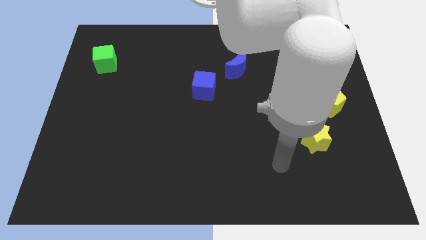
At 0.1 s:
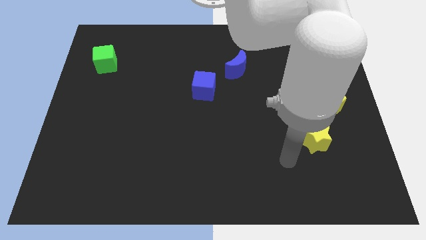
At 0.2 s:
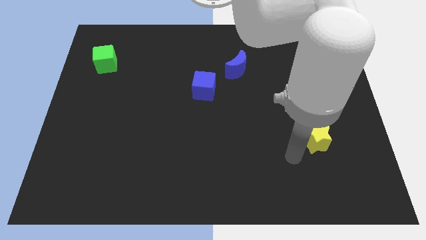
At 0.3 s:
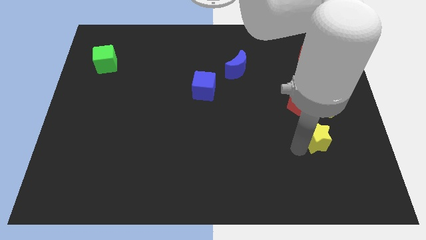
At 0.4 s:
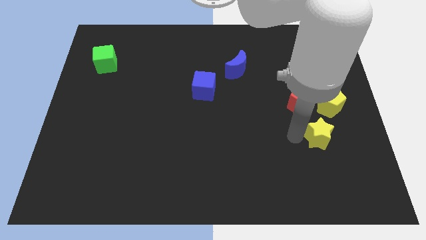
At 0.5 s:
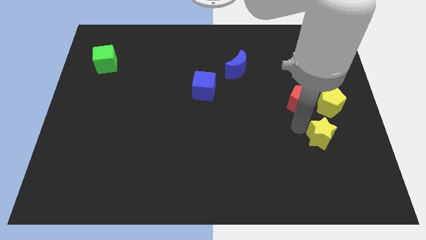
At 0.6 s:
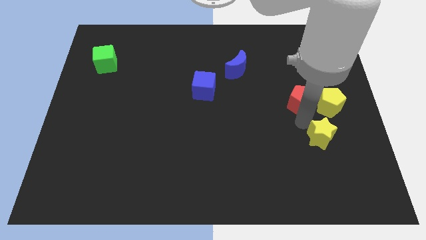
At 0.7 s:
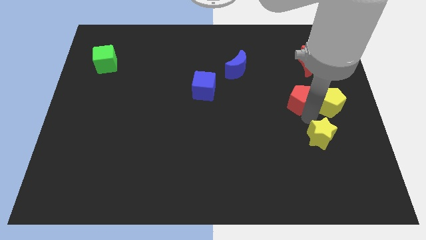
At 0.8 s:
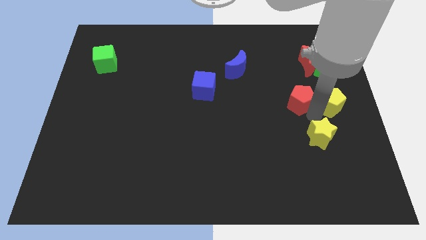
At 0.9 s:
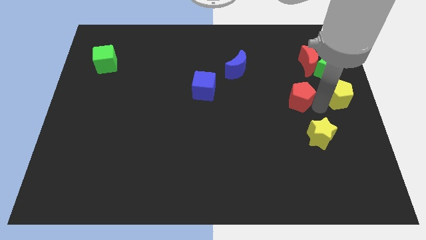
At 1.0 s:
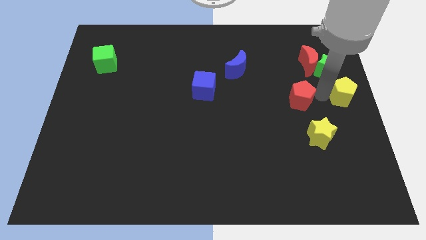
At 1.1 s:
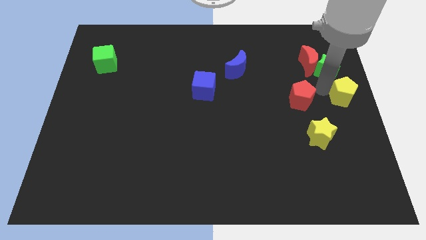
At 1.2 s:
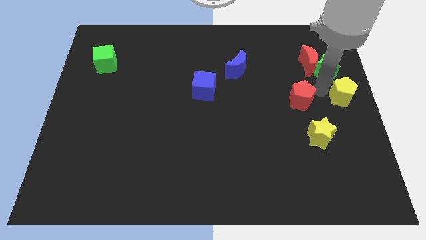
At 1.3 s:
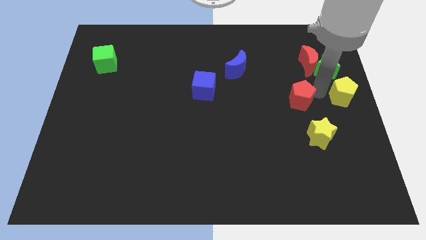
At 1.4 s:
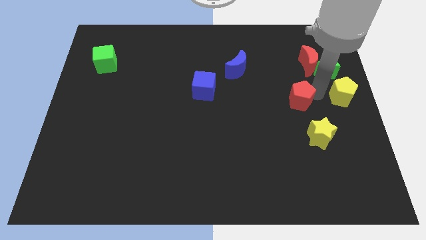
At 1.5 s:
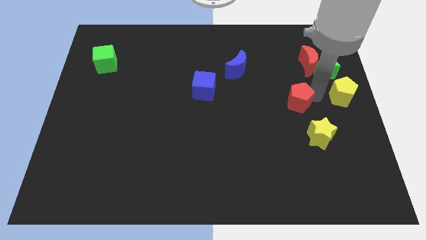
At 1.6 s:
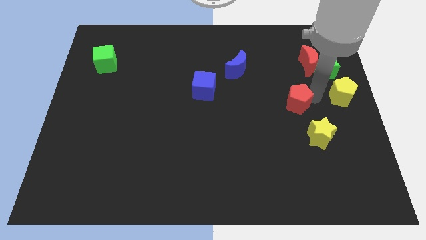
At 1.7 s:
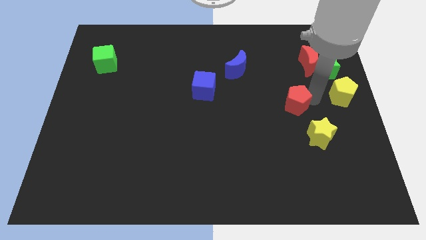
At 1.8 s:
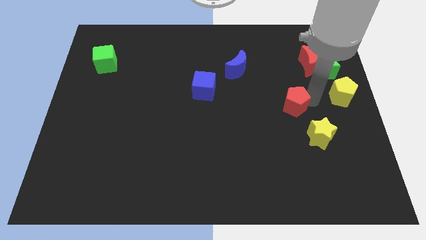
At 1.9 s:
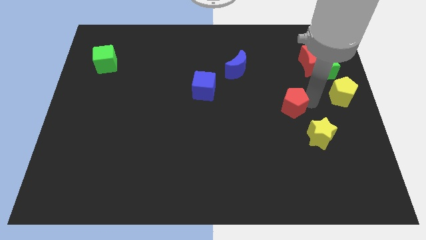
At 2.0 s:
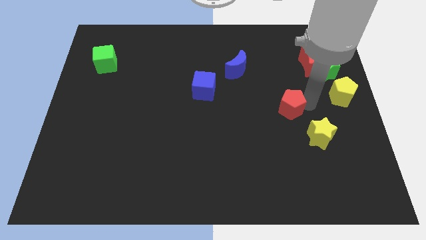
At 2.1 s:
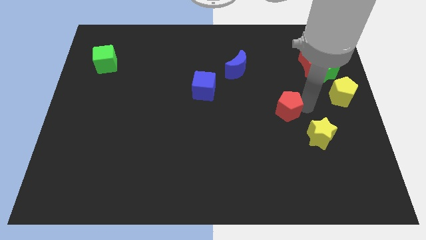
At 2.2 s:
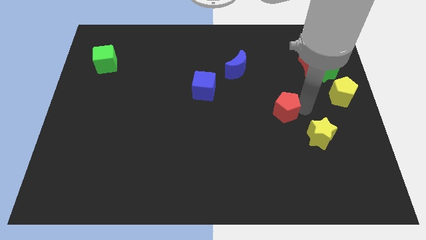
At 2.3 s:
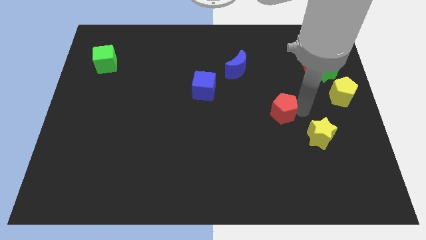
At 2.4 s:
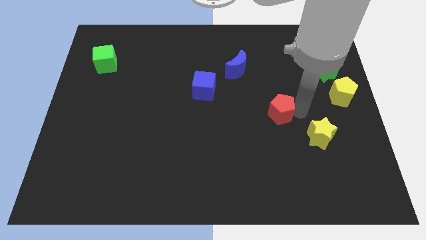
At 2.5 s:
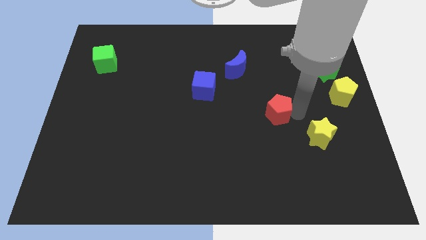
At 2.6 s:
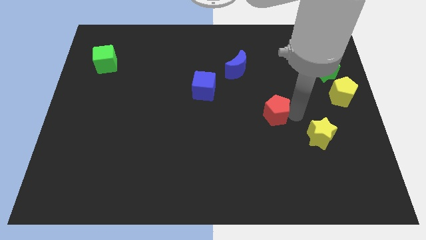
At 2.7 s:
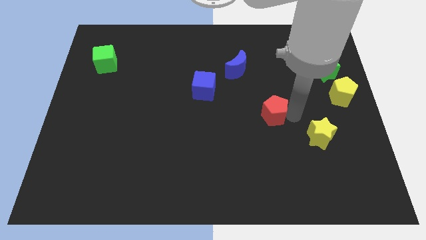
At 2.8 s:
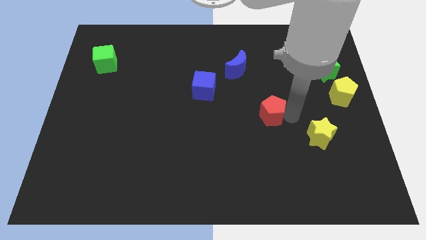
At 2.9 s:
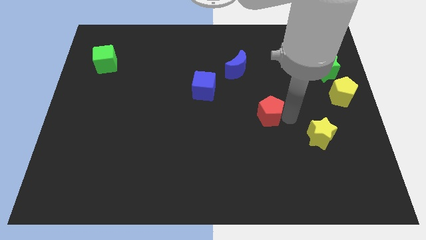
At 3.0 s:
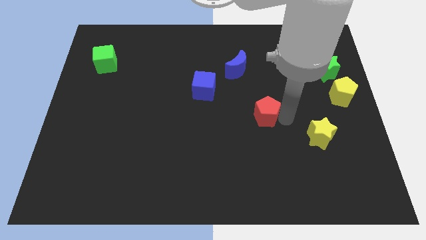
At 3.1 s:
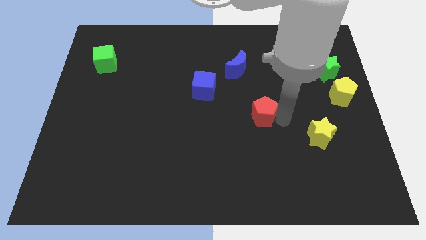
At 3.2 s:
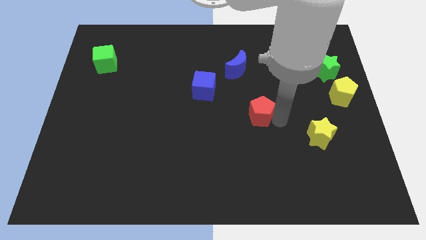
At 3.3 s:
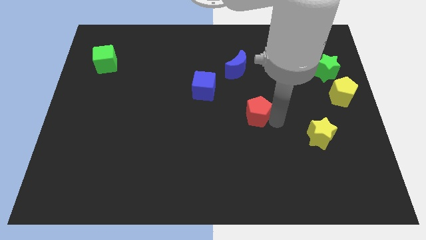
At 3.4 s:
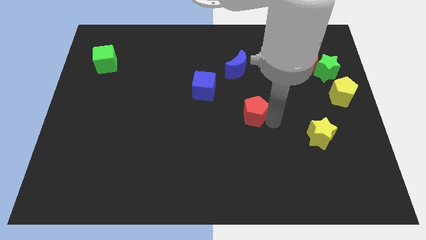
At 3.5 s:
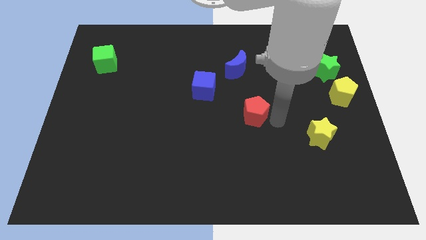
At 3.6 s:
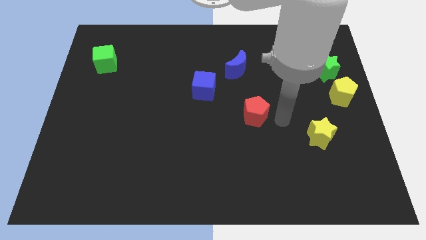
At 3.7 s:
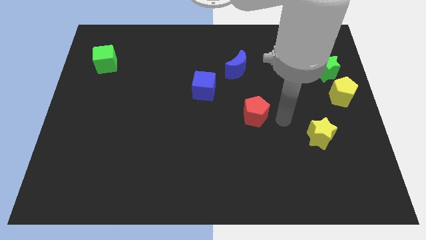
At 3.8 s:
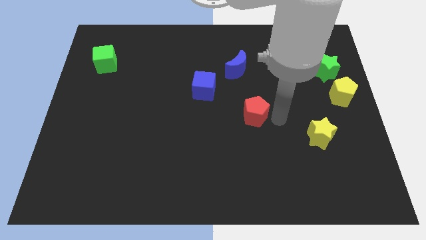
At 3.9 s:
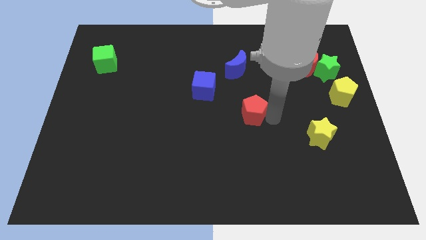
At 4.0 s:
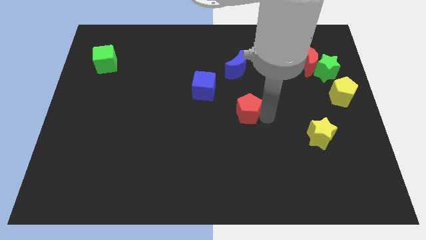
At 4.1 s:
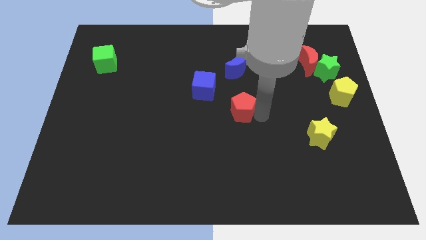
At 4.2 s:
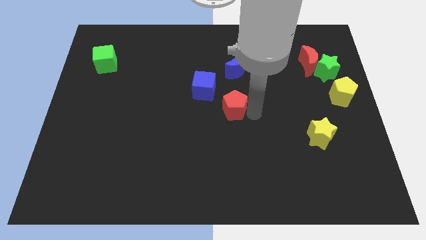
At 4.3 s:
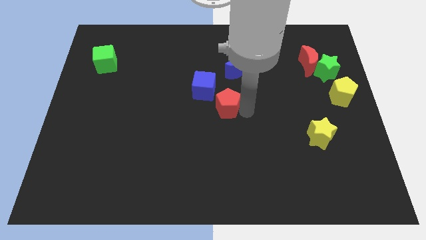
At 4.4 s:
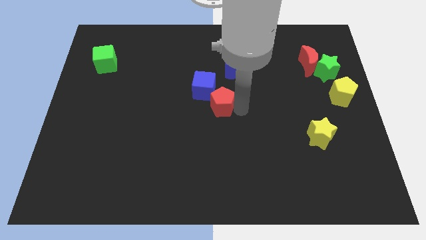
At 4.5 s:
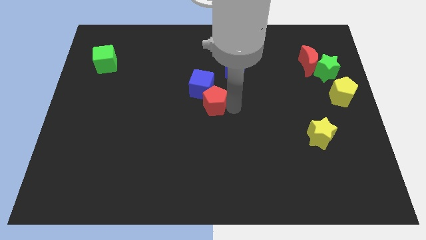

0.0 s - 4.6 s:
push the red pentagon to the left

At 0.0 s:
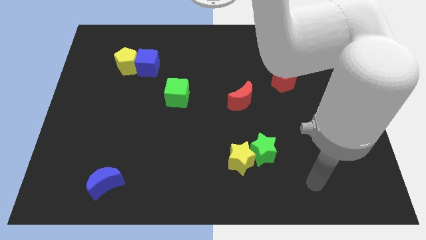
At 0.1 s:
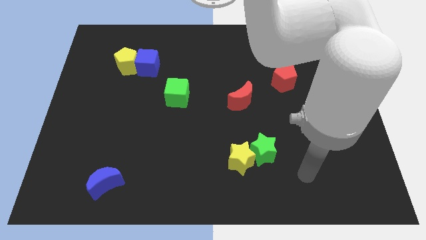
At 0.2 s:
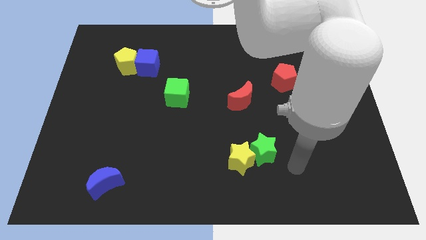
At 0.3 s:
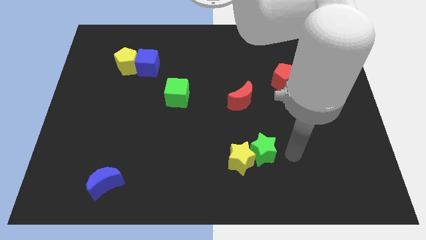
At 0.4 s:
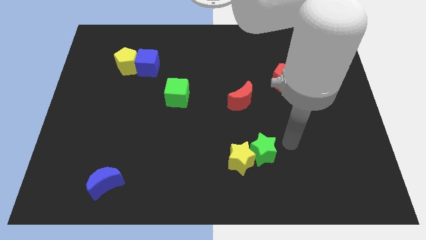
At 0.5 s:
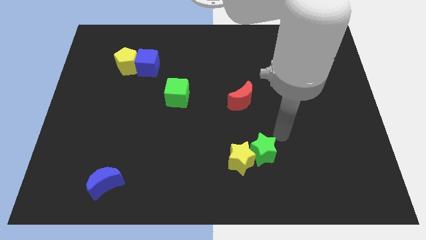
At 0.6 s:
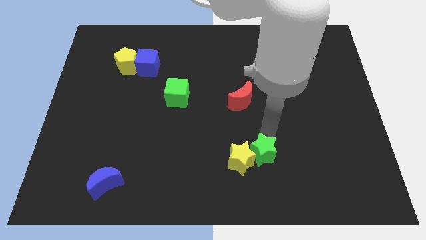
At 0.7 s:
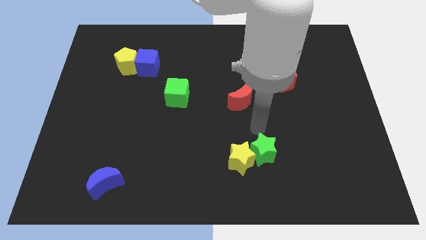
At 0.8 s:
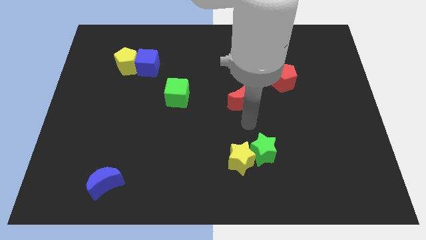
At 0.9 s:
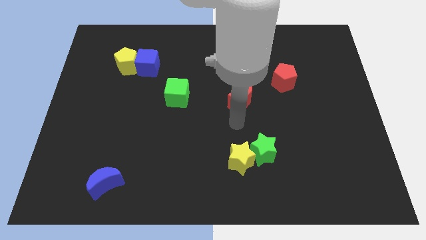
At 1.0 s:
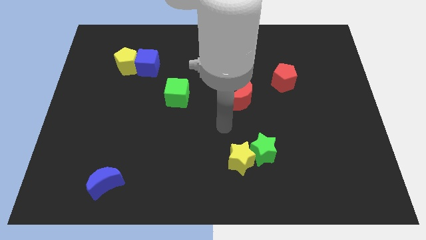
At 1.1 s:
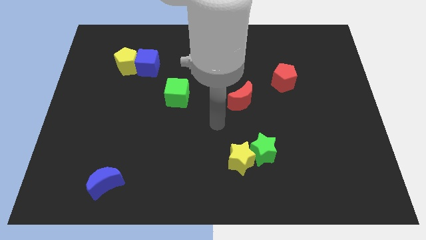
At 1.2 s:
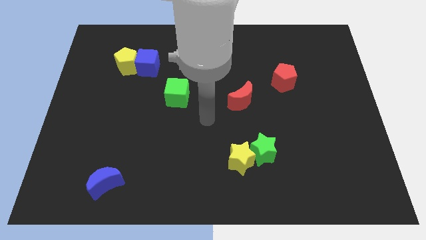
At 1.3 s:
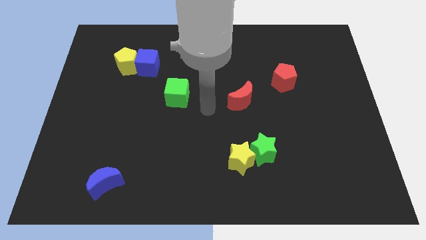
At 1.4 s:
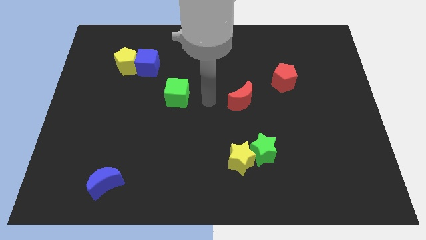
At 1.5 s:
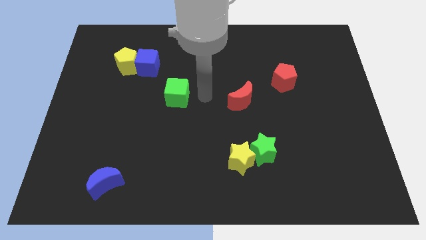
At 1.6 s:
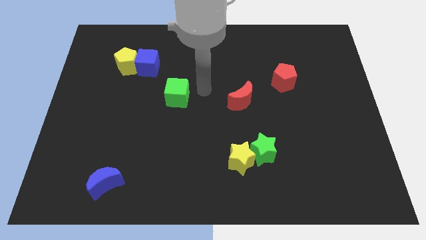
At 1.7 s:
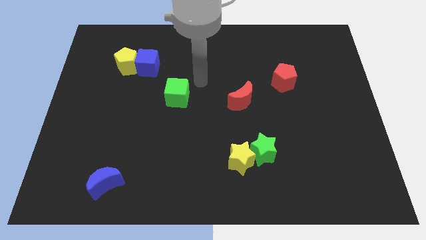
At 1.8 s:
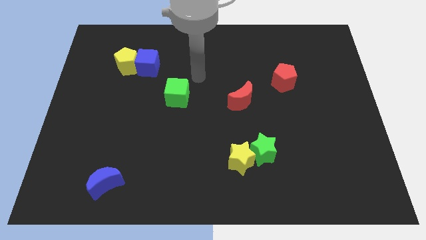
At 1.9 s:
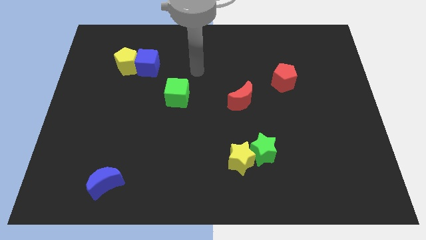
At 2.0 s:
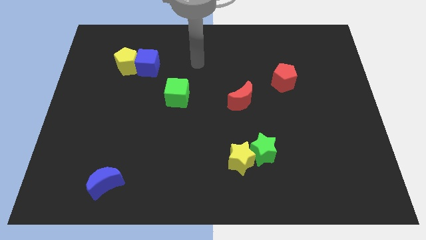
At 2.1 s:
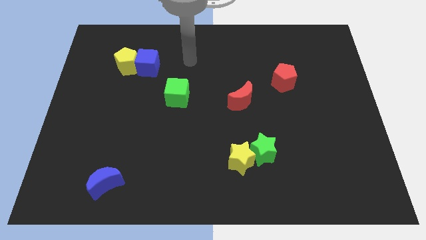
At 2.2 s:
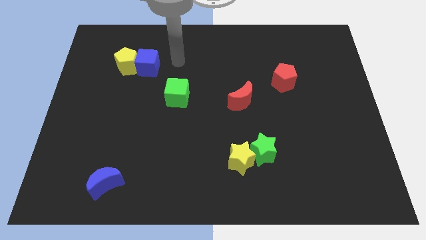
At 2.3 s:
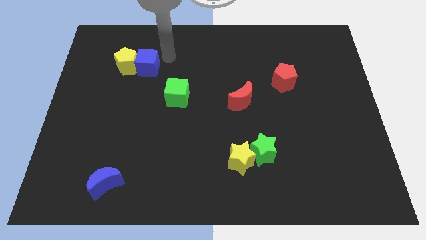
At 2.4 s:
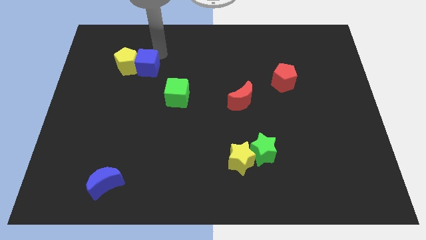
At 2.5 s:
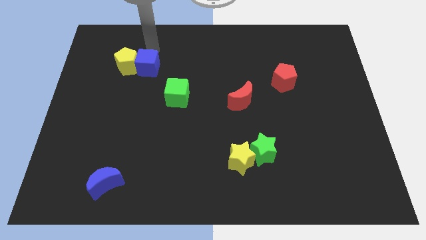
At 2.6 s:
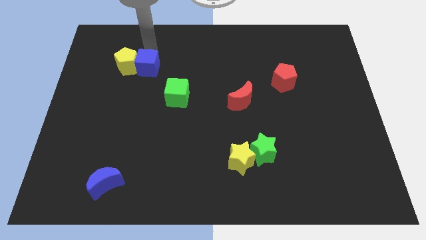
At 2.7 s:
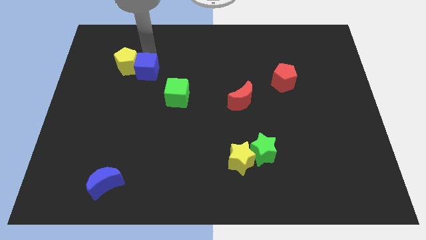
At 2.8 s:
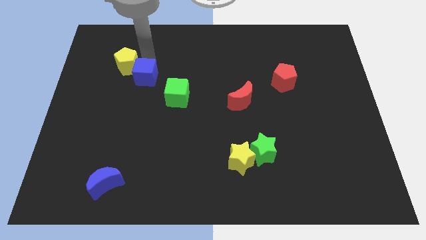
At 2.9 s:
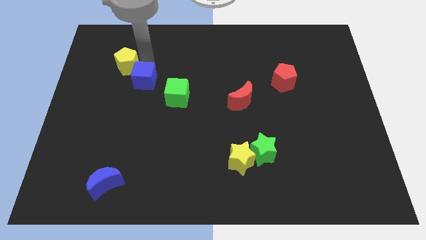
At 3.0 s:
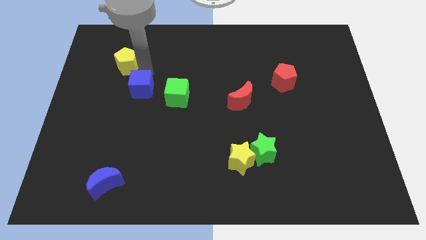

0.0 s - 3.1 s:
slide the blue cube down a bit
